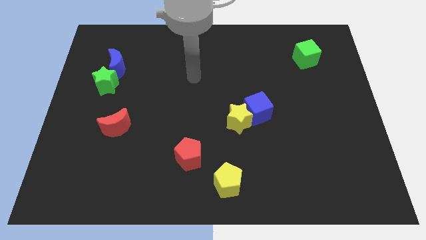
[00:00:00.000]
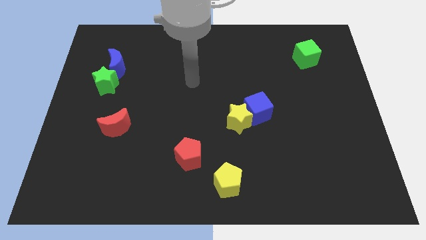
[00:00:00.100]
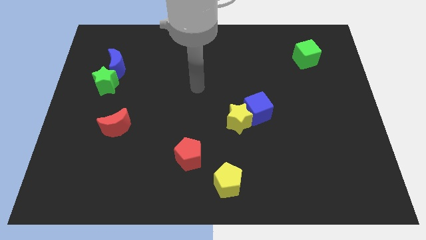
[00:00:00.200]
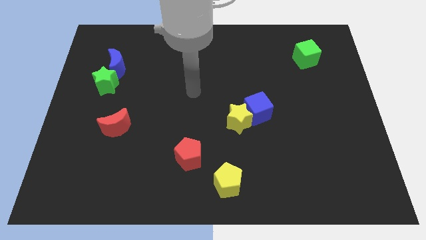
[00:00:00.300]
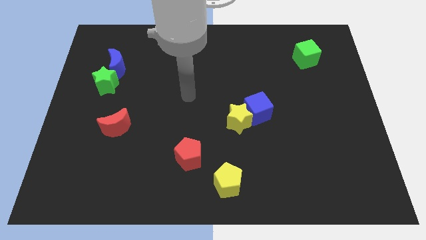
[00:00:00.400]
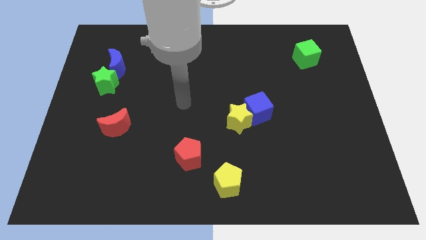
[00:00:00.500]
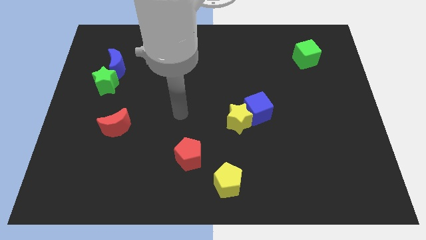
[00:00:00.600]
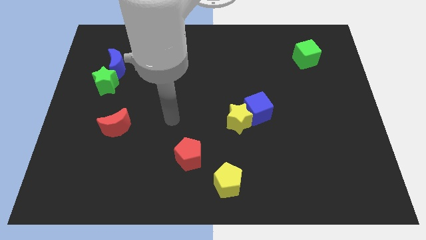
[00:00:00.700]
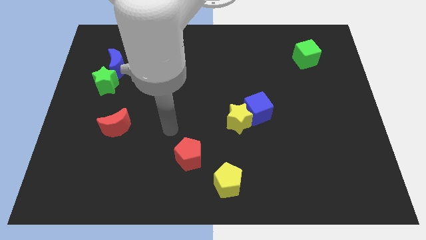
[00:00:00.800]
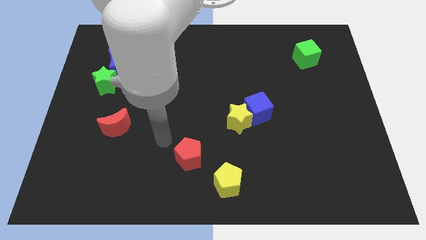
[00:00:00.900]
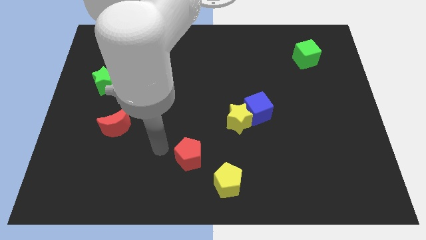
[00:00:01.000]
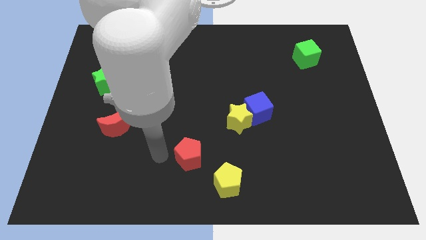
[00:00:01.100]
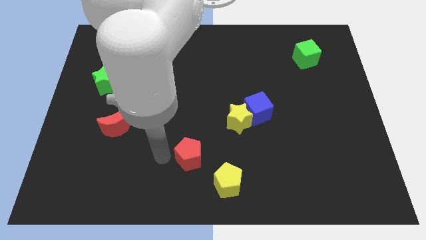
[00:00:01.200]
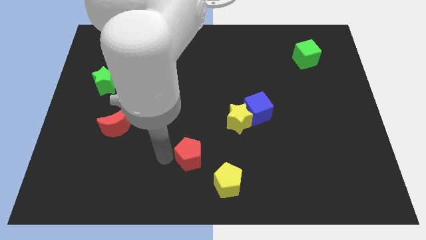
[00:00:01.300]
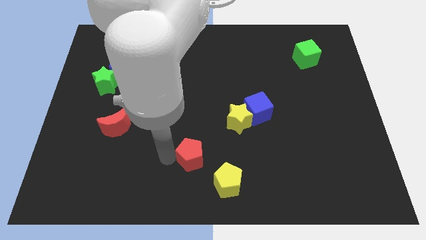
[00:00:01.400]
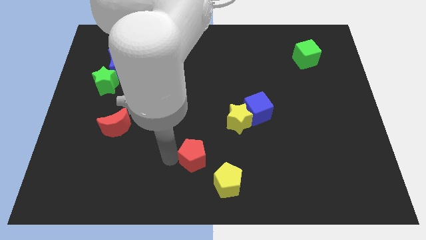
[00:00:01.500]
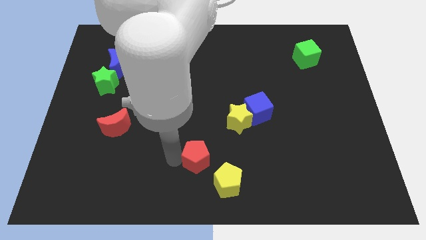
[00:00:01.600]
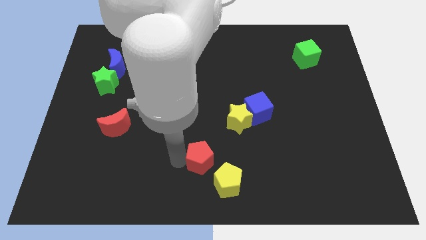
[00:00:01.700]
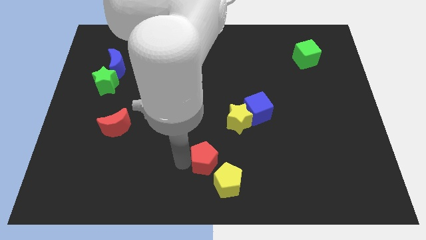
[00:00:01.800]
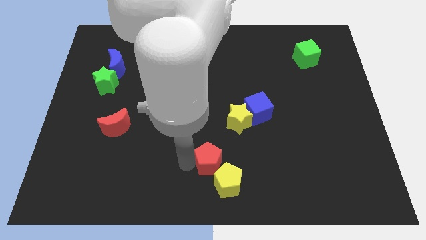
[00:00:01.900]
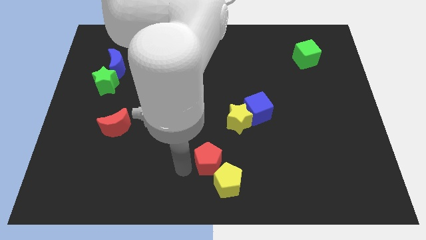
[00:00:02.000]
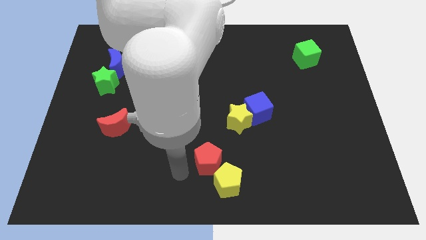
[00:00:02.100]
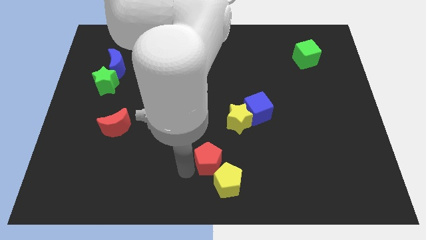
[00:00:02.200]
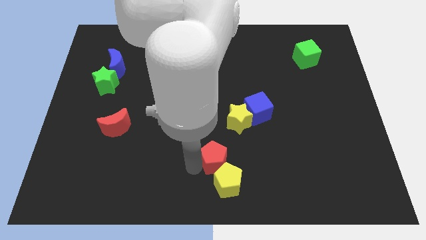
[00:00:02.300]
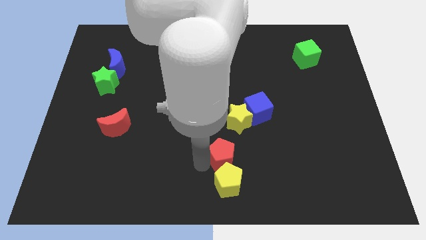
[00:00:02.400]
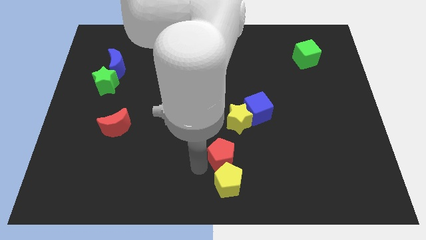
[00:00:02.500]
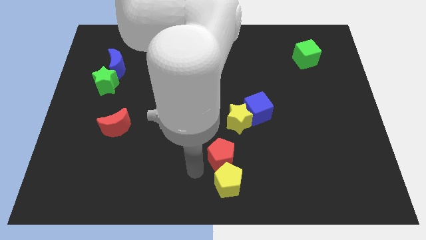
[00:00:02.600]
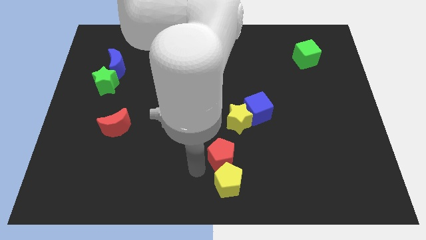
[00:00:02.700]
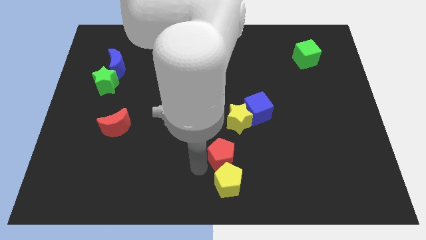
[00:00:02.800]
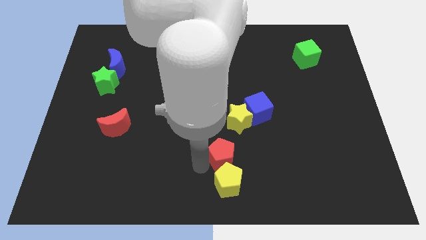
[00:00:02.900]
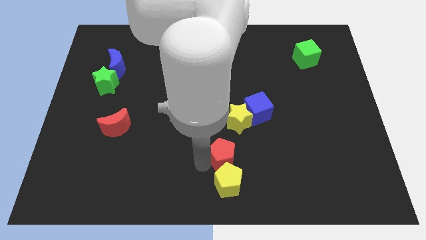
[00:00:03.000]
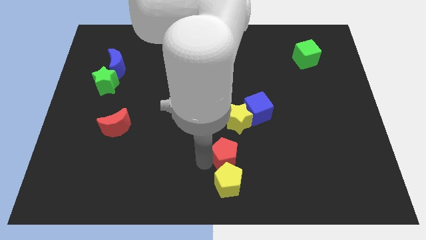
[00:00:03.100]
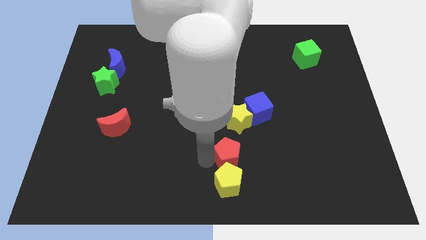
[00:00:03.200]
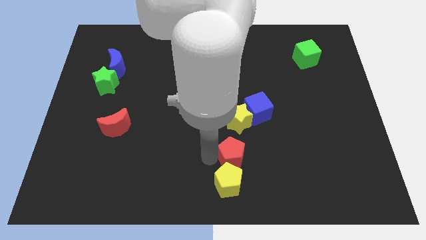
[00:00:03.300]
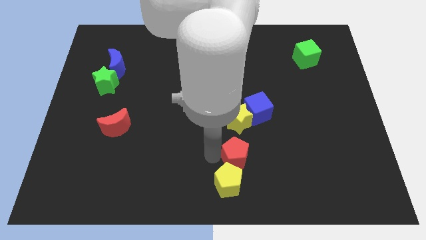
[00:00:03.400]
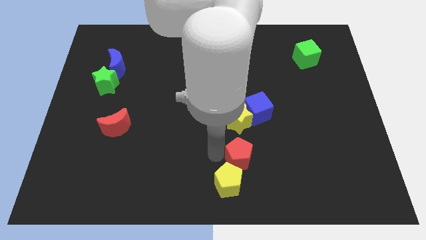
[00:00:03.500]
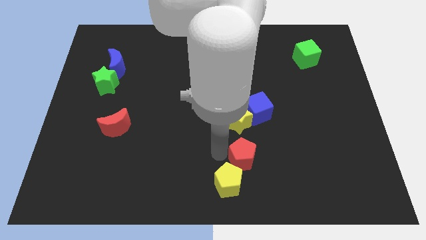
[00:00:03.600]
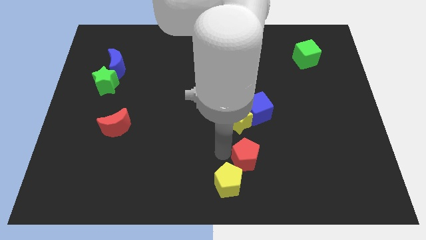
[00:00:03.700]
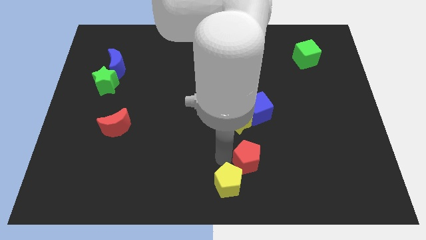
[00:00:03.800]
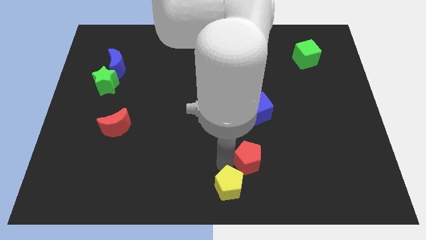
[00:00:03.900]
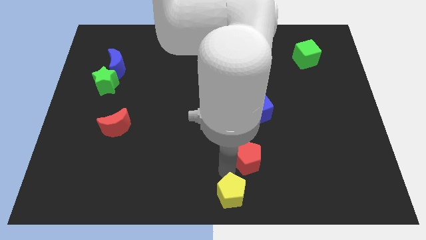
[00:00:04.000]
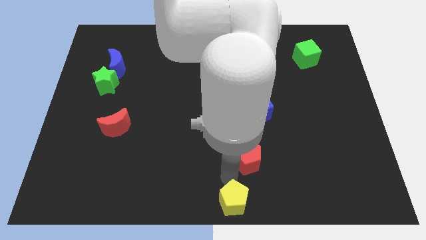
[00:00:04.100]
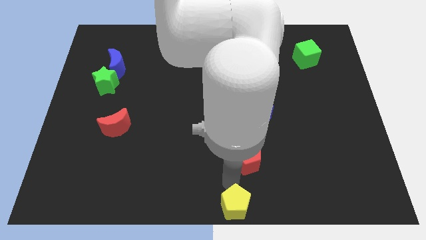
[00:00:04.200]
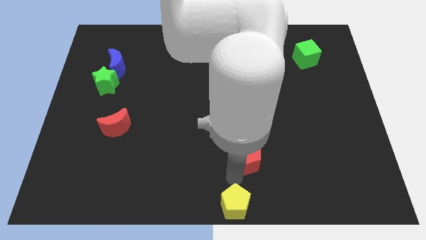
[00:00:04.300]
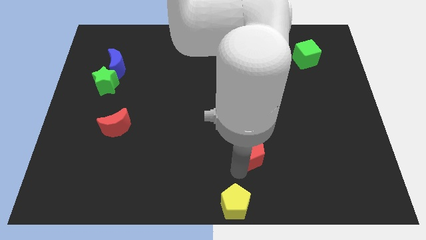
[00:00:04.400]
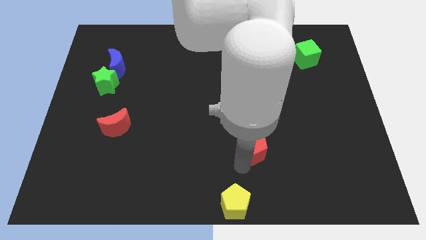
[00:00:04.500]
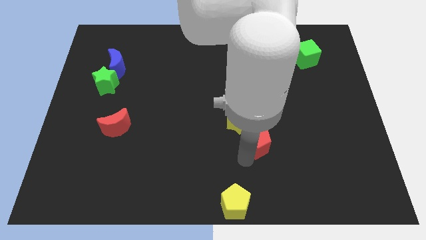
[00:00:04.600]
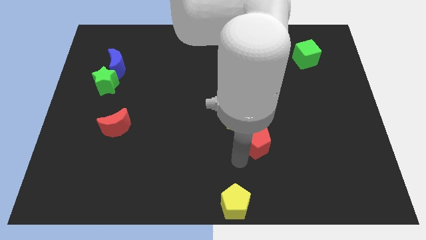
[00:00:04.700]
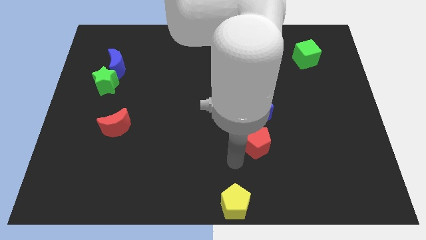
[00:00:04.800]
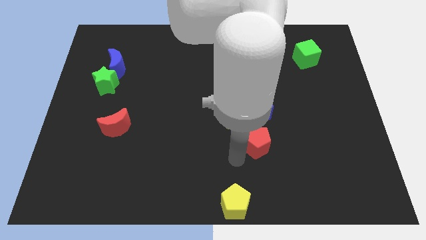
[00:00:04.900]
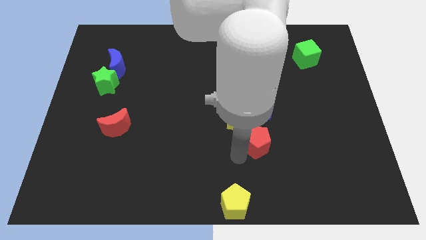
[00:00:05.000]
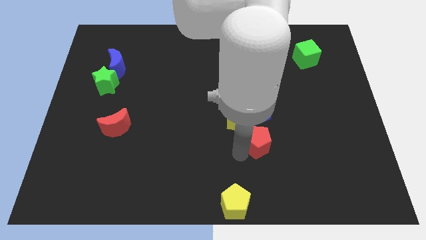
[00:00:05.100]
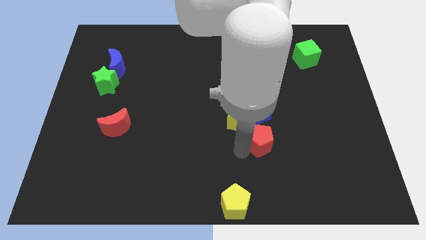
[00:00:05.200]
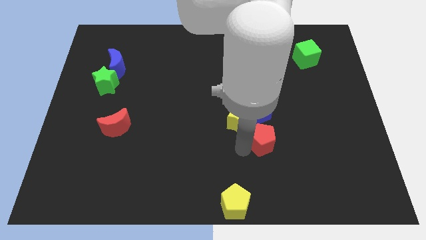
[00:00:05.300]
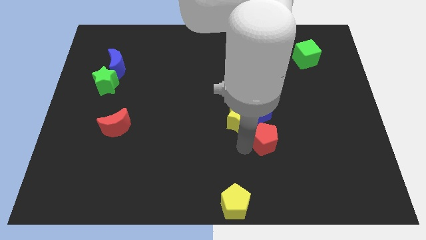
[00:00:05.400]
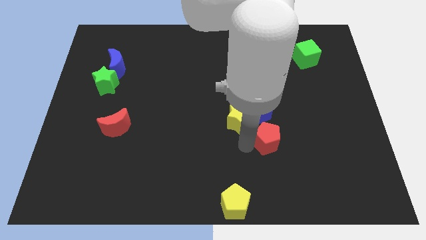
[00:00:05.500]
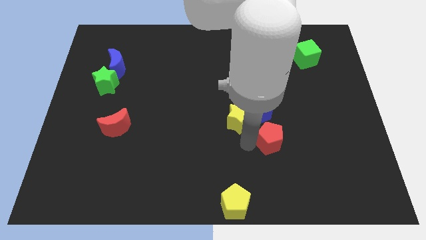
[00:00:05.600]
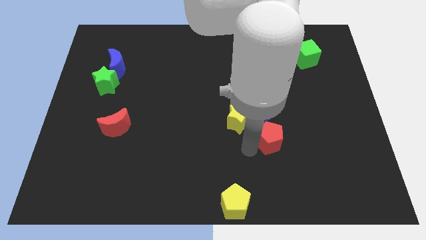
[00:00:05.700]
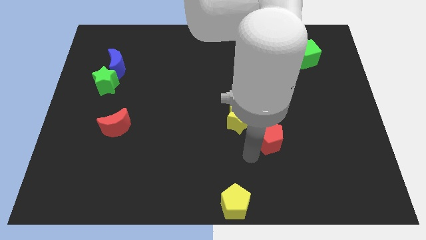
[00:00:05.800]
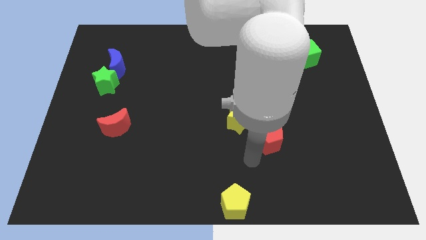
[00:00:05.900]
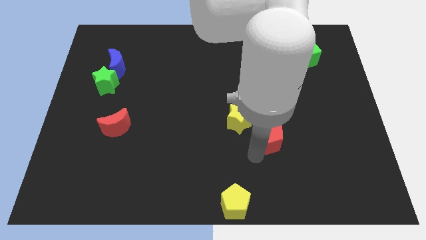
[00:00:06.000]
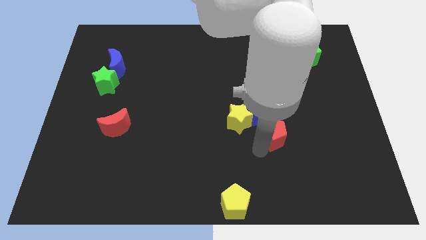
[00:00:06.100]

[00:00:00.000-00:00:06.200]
slide the red pentagon right of the yellow star

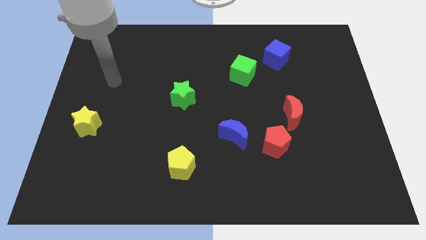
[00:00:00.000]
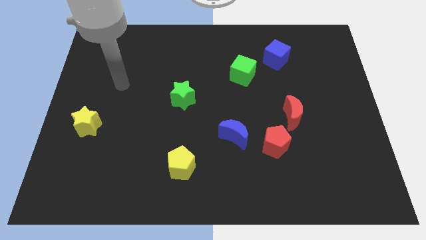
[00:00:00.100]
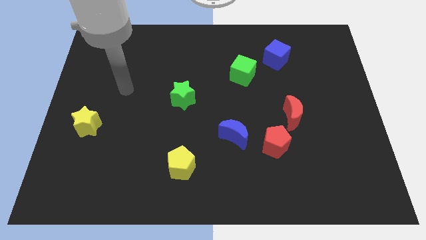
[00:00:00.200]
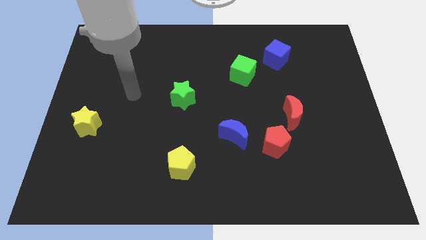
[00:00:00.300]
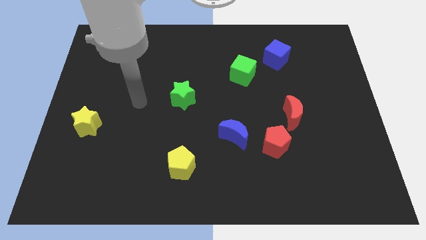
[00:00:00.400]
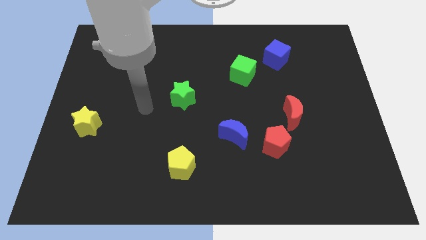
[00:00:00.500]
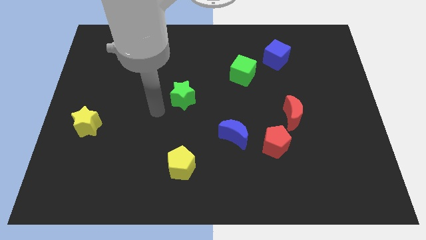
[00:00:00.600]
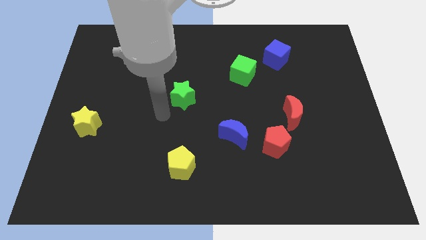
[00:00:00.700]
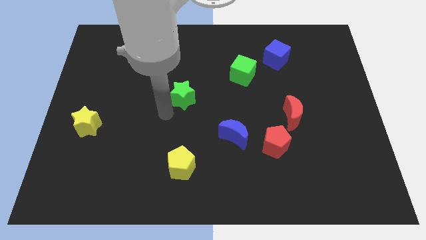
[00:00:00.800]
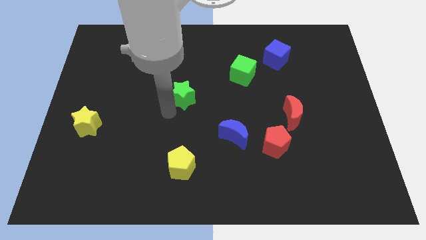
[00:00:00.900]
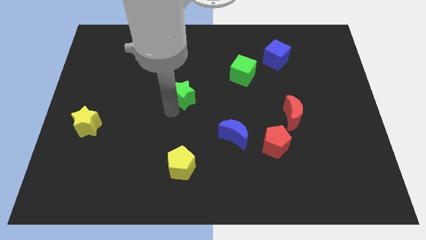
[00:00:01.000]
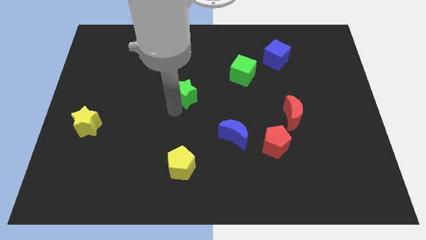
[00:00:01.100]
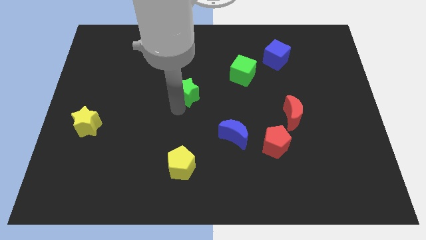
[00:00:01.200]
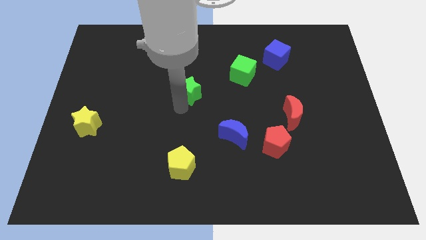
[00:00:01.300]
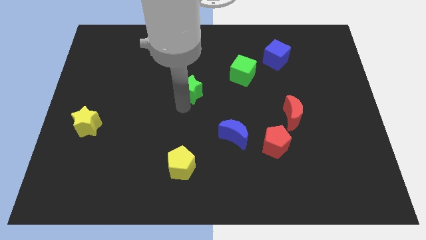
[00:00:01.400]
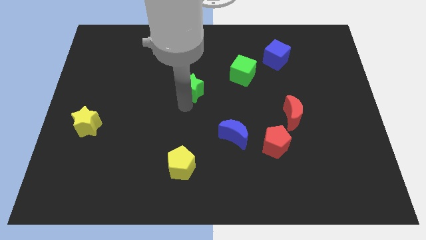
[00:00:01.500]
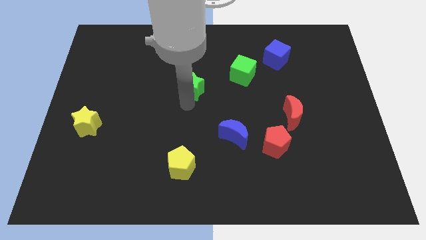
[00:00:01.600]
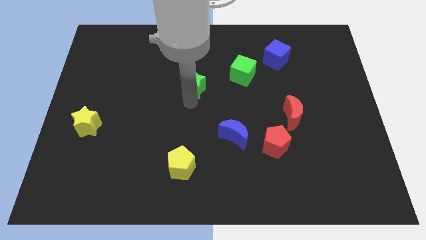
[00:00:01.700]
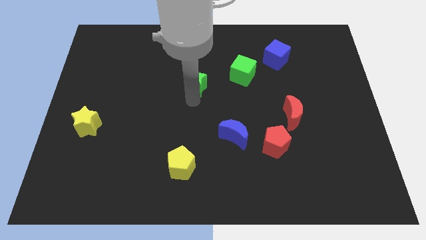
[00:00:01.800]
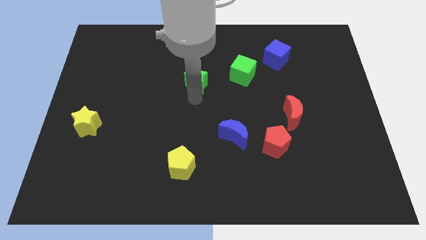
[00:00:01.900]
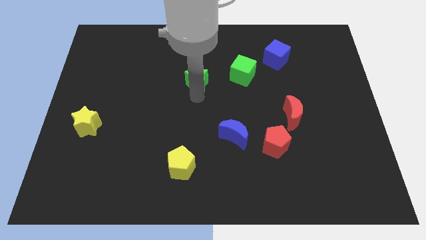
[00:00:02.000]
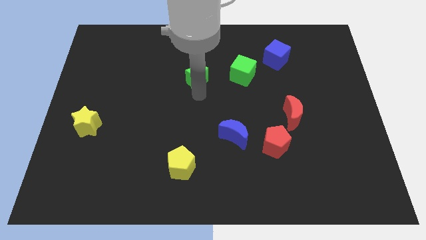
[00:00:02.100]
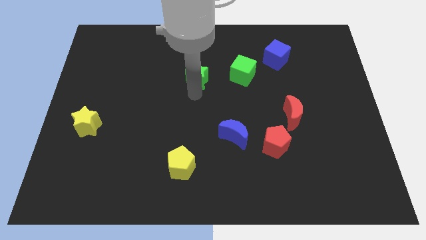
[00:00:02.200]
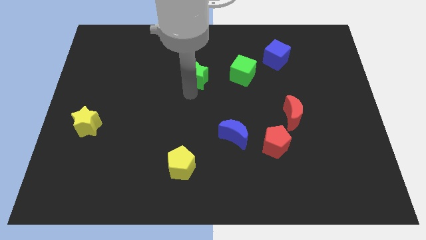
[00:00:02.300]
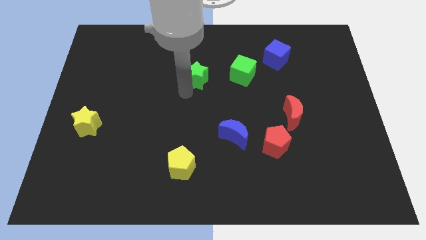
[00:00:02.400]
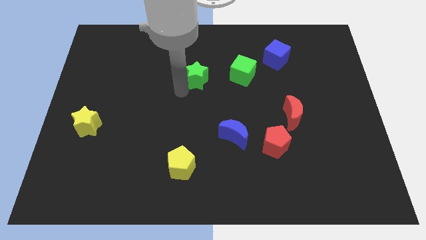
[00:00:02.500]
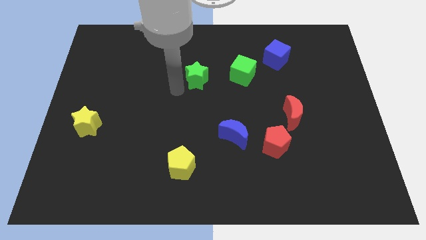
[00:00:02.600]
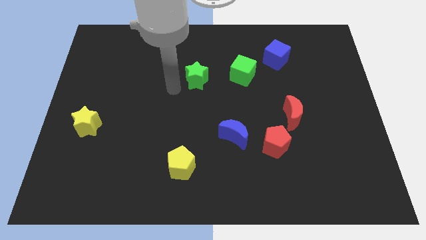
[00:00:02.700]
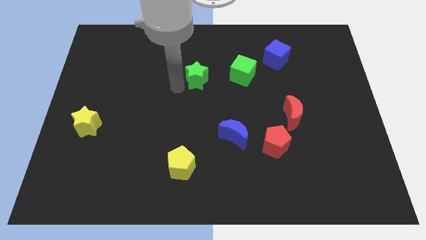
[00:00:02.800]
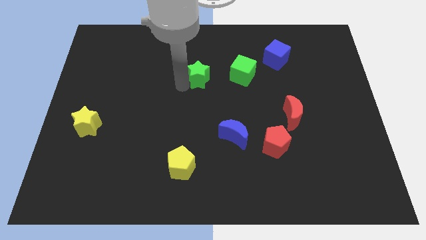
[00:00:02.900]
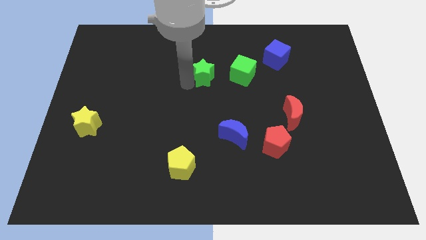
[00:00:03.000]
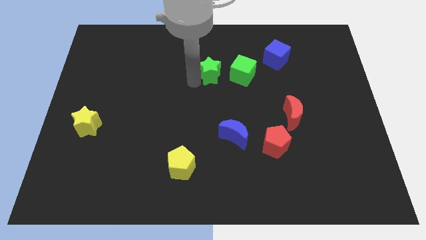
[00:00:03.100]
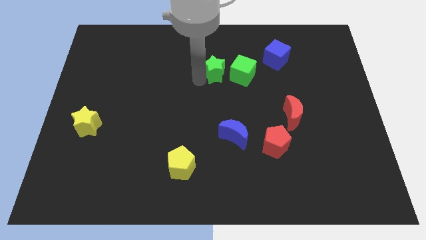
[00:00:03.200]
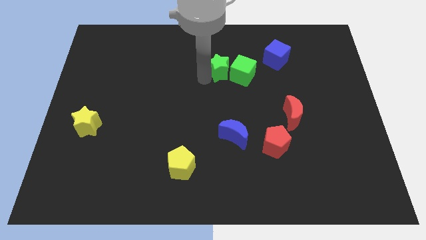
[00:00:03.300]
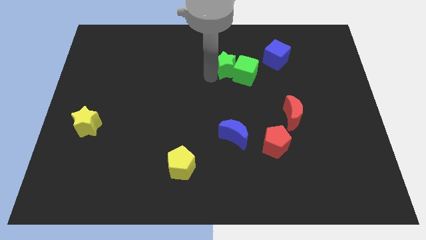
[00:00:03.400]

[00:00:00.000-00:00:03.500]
put the green star to the left side of the blue cube
